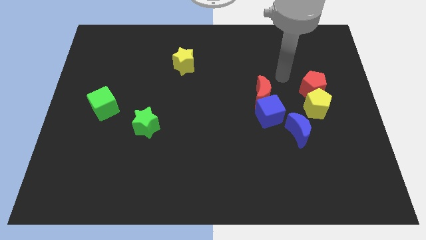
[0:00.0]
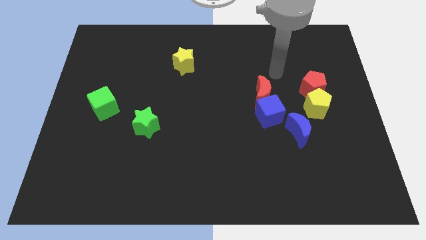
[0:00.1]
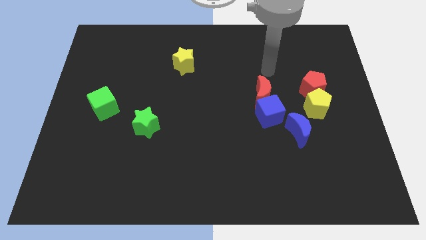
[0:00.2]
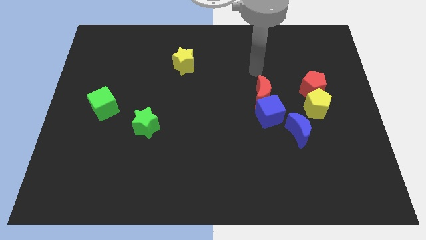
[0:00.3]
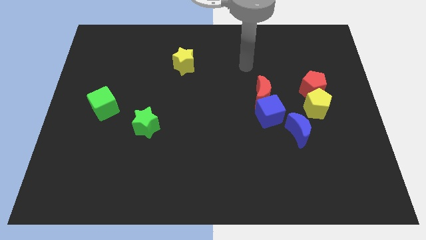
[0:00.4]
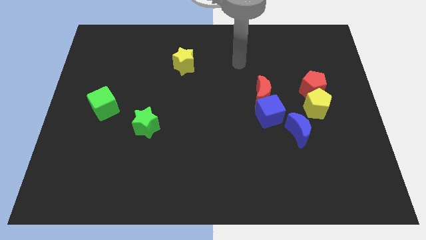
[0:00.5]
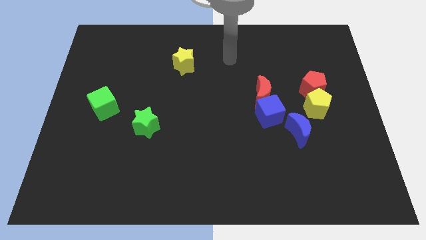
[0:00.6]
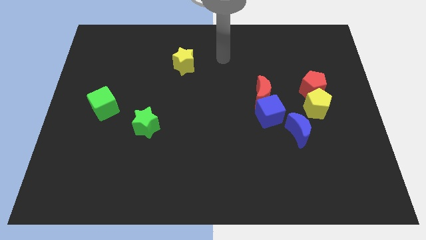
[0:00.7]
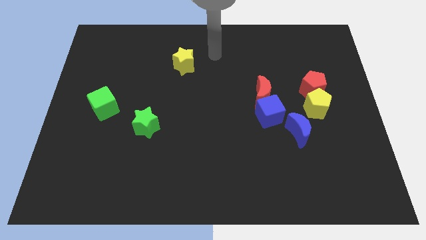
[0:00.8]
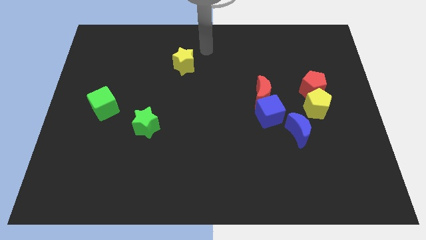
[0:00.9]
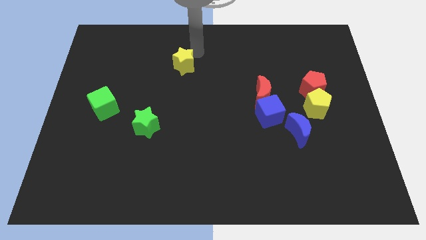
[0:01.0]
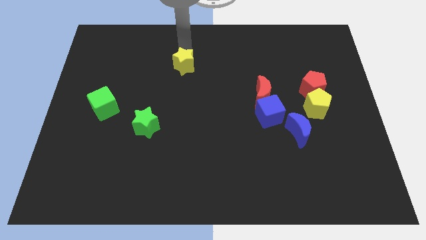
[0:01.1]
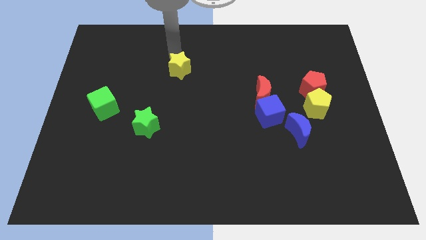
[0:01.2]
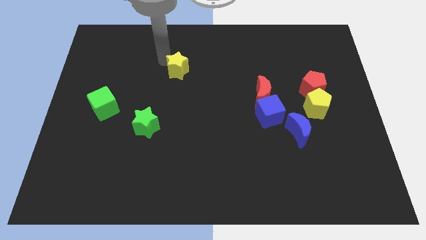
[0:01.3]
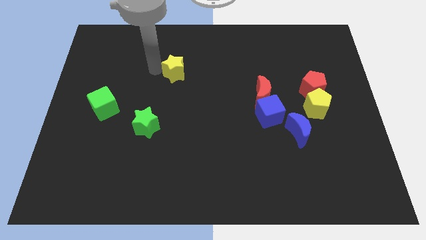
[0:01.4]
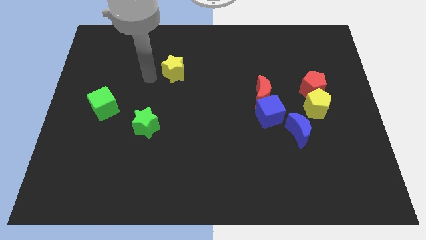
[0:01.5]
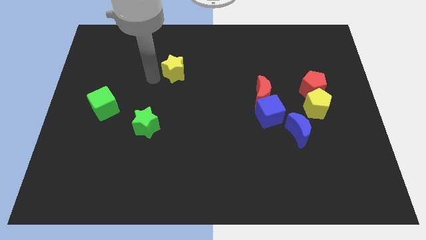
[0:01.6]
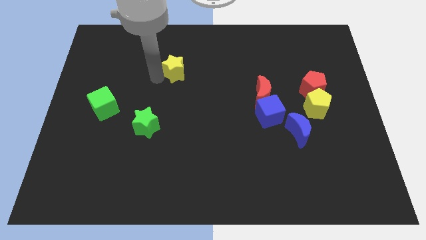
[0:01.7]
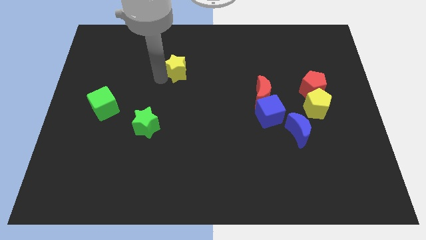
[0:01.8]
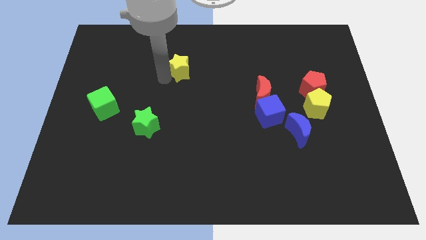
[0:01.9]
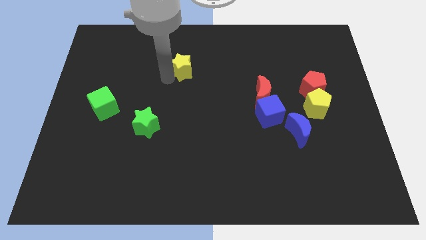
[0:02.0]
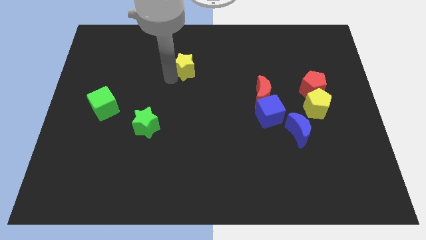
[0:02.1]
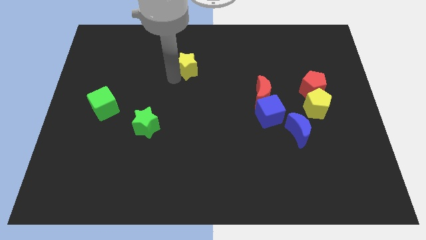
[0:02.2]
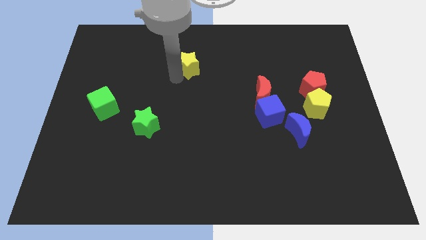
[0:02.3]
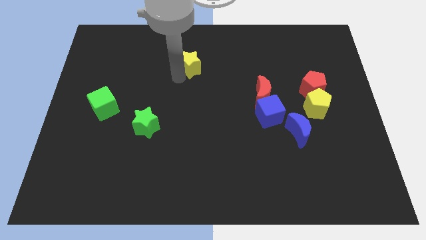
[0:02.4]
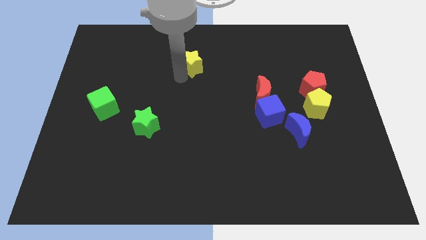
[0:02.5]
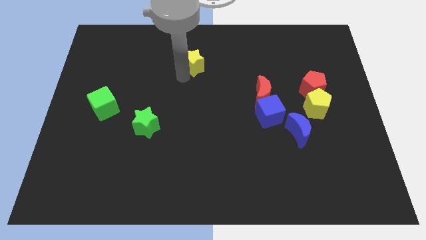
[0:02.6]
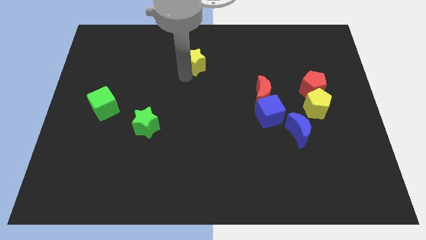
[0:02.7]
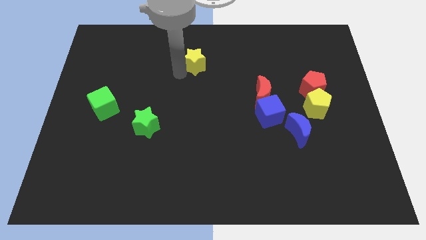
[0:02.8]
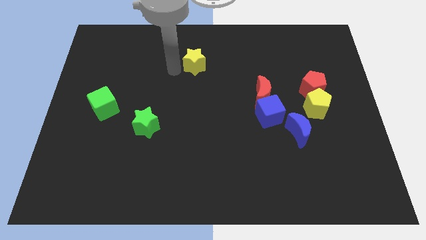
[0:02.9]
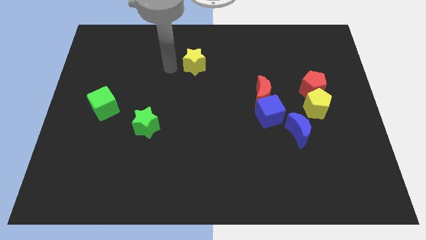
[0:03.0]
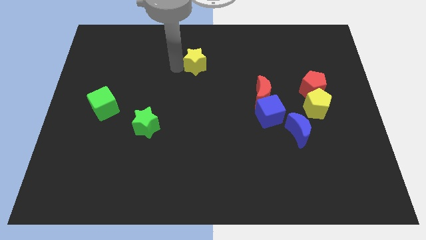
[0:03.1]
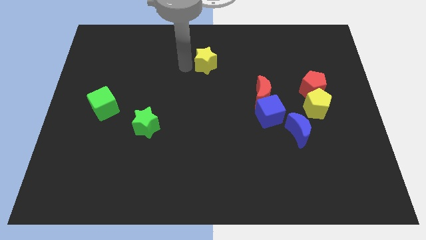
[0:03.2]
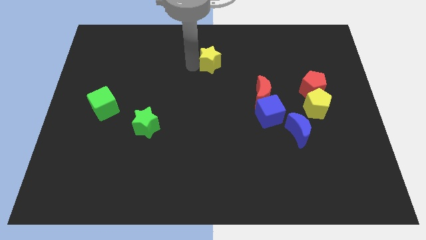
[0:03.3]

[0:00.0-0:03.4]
move the yellow star right a bit

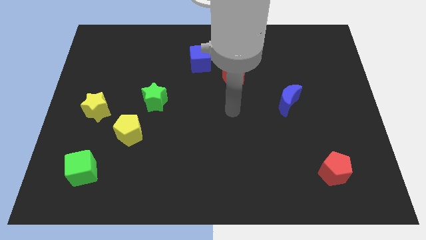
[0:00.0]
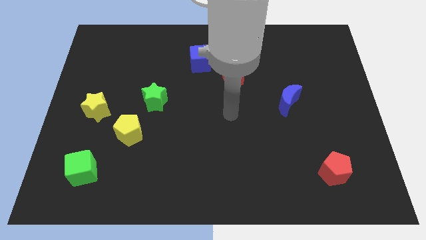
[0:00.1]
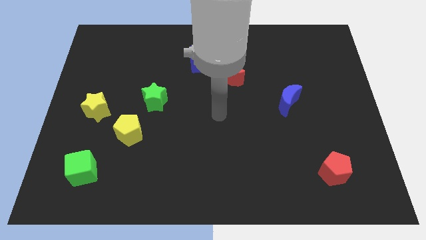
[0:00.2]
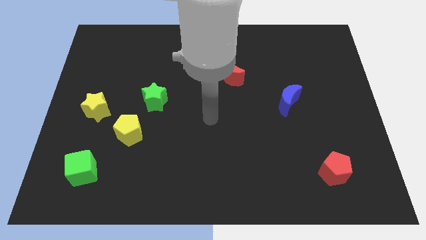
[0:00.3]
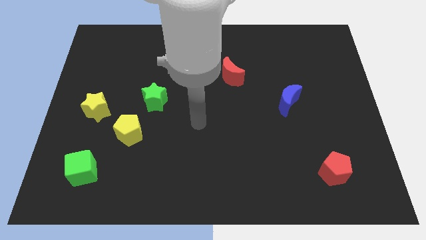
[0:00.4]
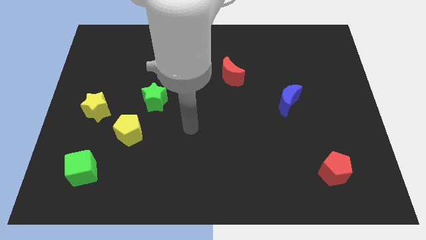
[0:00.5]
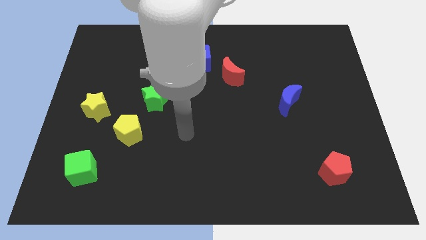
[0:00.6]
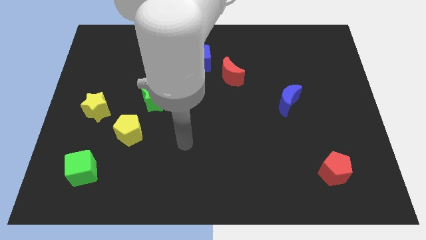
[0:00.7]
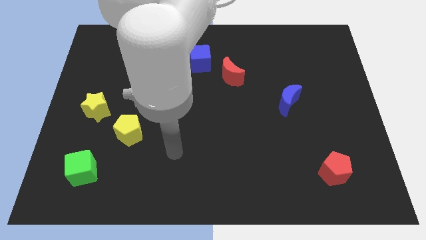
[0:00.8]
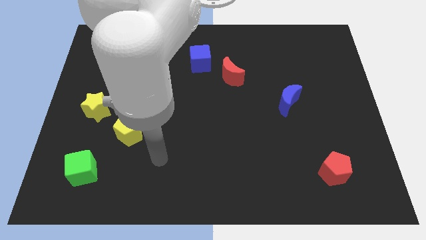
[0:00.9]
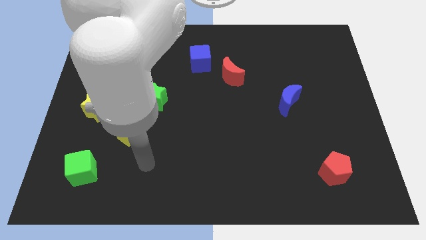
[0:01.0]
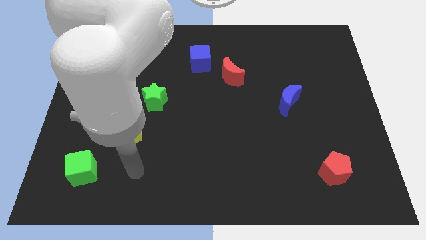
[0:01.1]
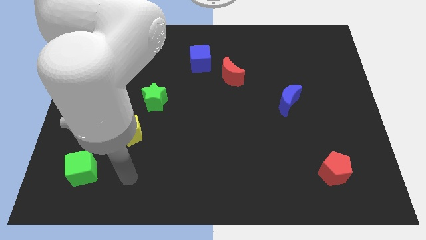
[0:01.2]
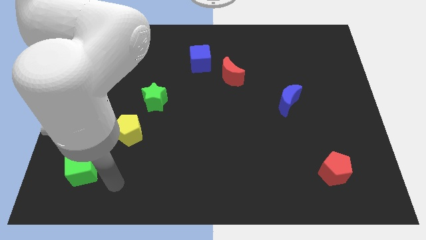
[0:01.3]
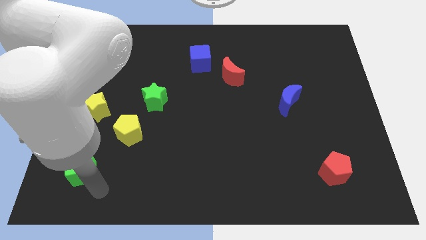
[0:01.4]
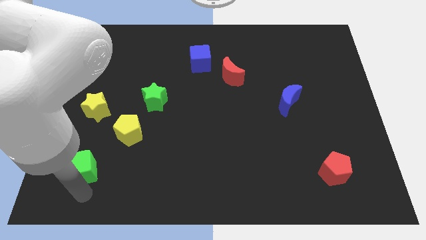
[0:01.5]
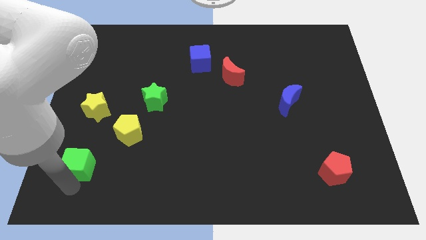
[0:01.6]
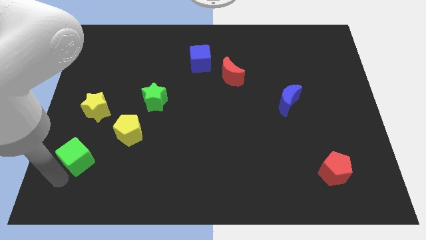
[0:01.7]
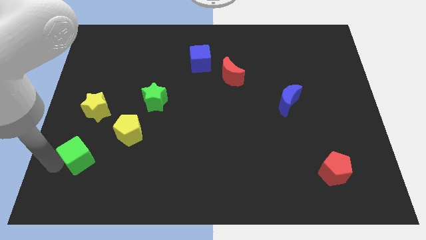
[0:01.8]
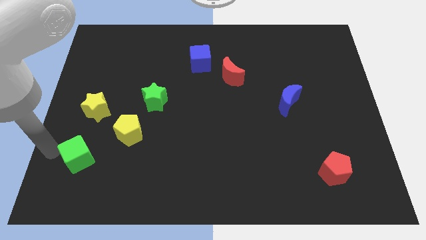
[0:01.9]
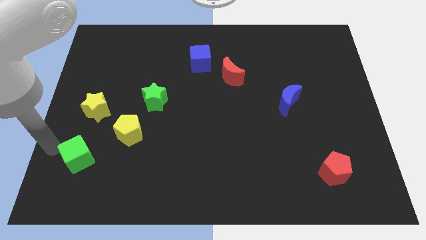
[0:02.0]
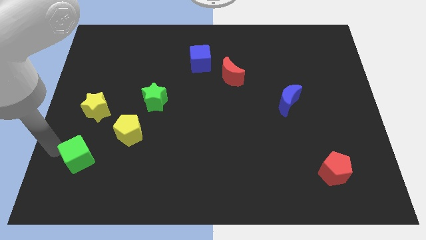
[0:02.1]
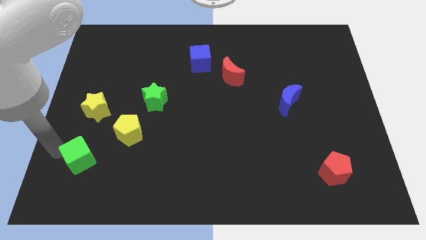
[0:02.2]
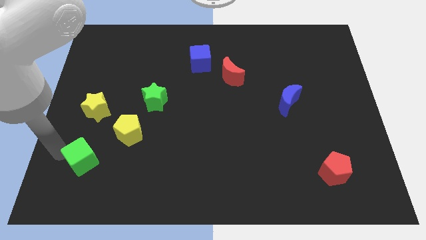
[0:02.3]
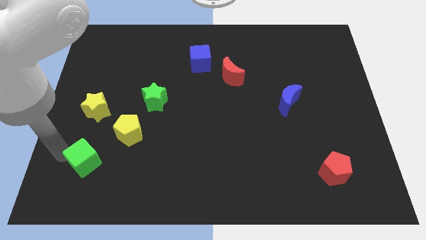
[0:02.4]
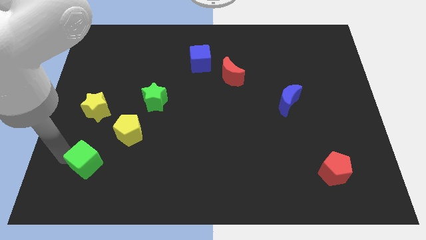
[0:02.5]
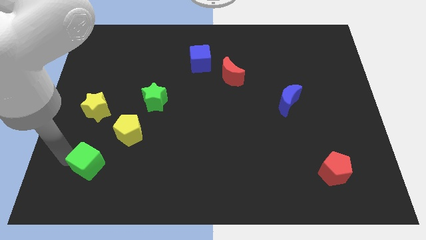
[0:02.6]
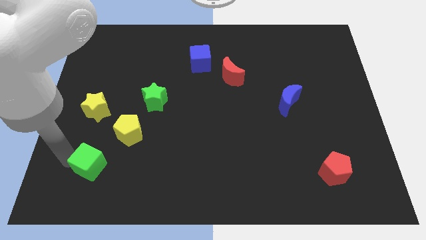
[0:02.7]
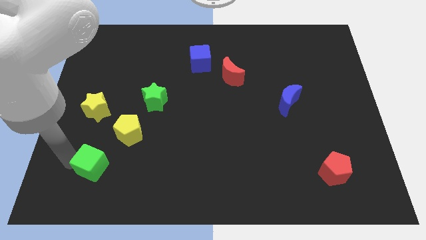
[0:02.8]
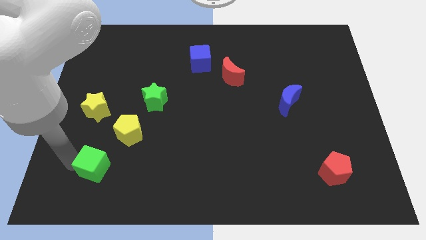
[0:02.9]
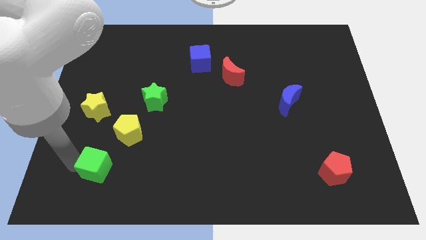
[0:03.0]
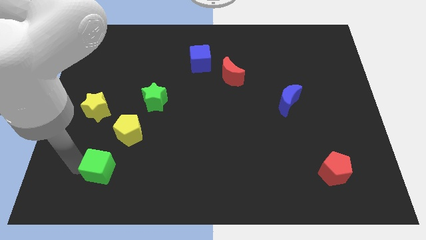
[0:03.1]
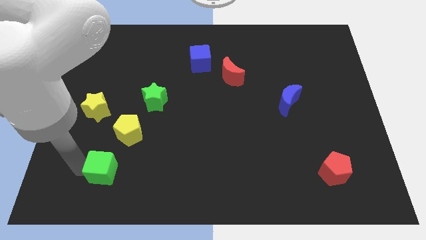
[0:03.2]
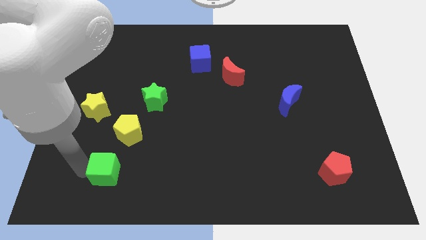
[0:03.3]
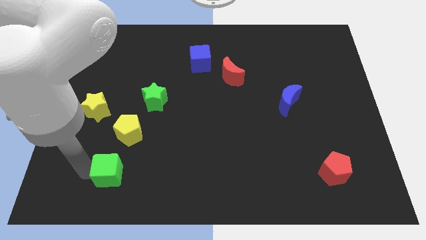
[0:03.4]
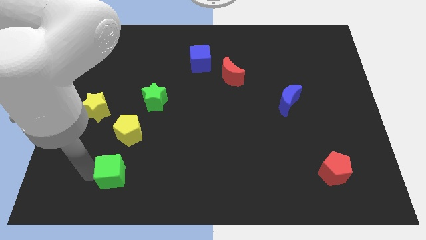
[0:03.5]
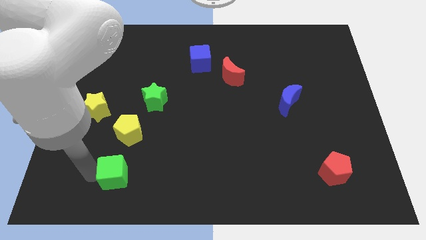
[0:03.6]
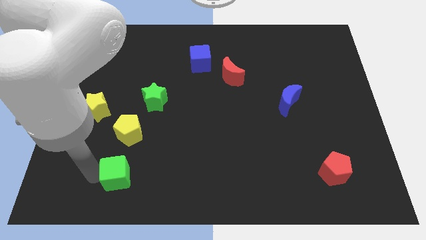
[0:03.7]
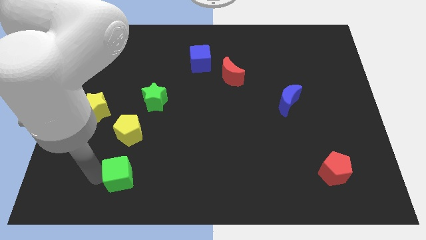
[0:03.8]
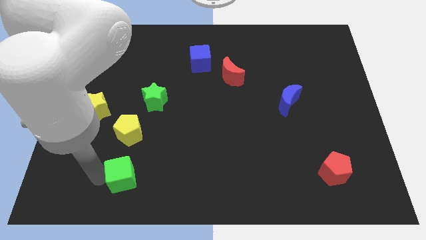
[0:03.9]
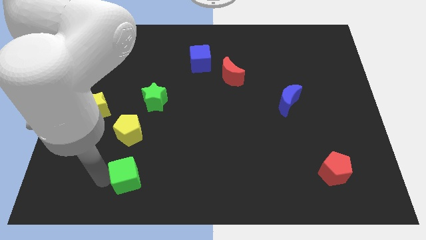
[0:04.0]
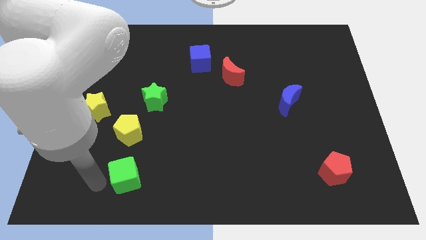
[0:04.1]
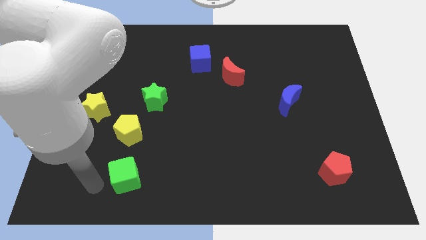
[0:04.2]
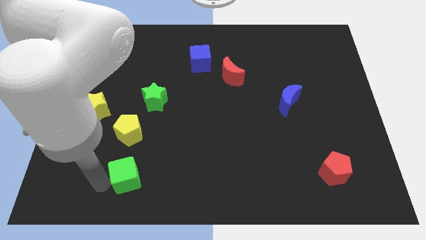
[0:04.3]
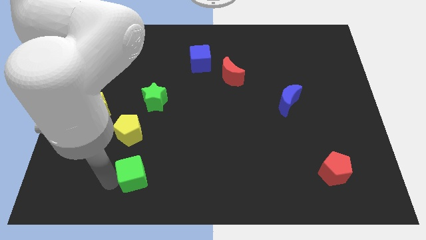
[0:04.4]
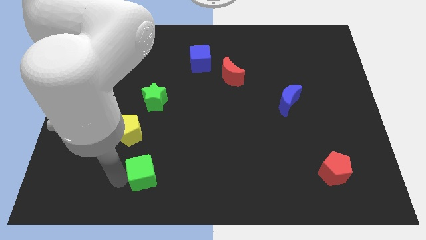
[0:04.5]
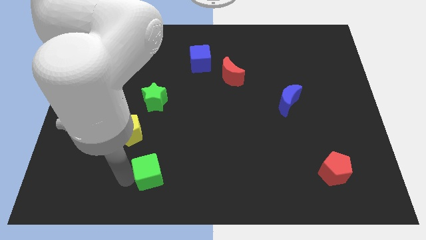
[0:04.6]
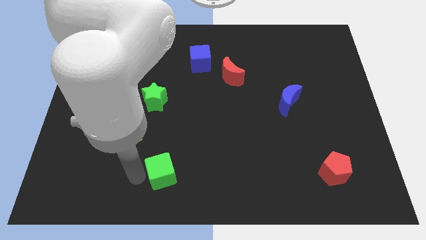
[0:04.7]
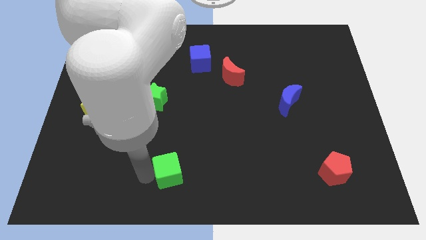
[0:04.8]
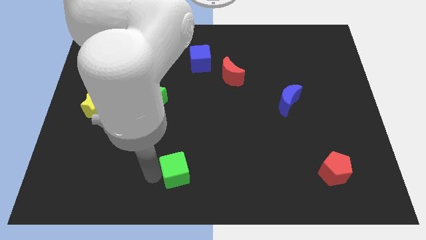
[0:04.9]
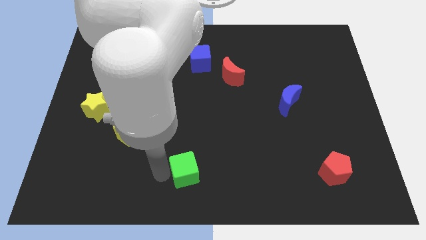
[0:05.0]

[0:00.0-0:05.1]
move the green cube to the right
